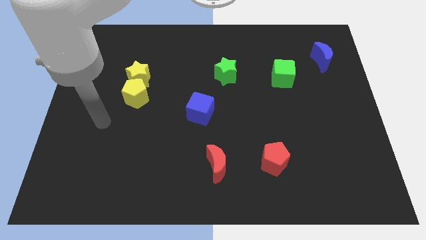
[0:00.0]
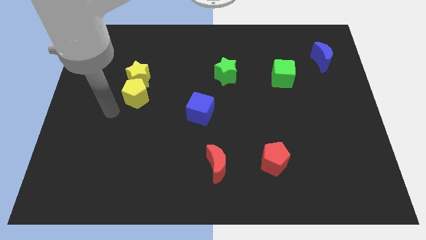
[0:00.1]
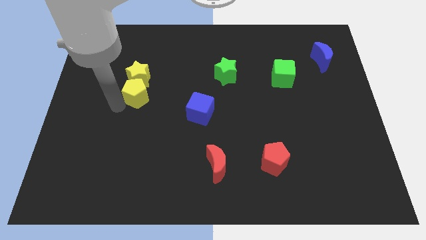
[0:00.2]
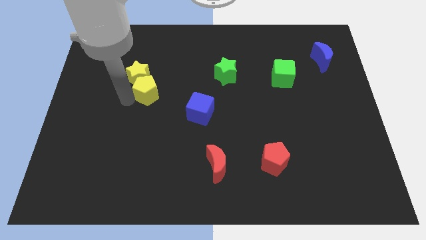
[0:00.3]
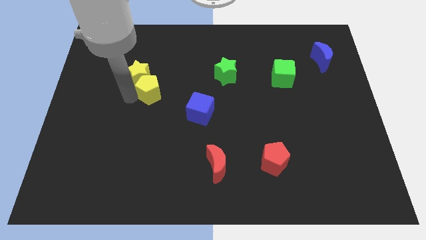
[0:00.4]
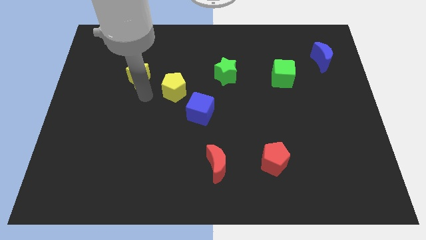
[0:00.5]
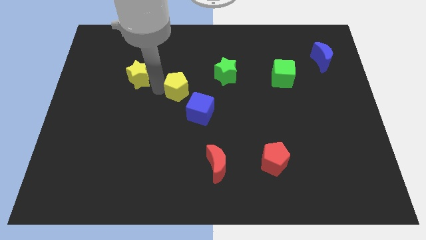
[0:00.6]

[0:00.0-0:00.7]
move the yellow star away from the yellow pentagon

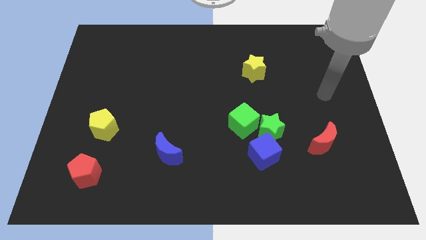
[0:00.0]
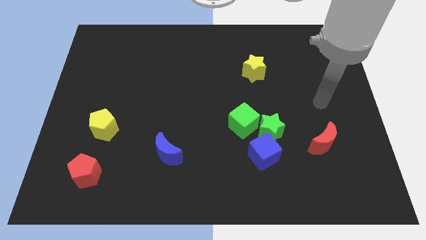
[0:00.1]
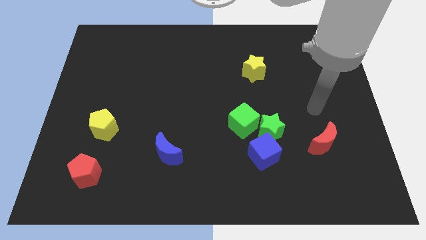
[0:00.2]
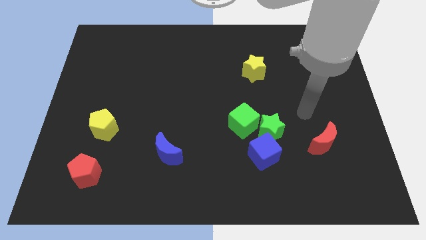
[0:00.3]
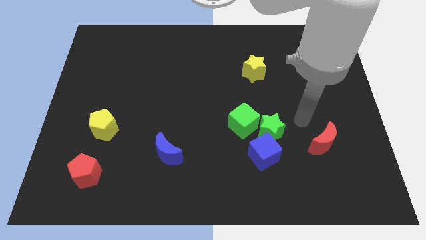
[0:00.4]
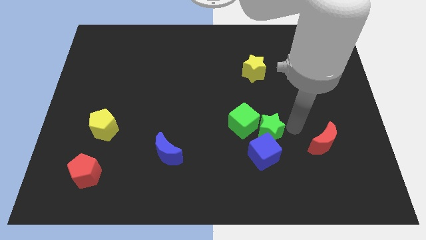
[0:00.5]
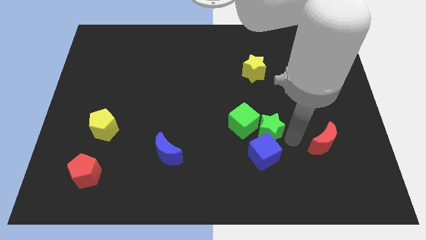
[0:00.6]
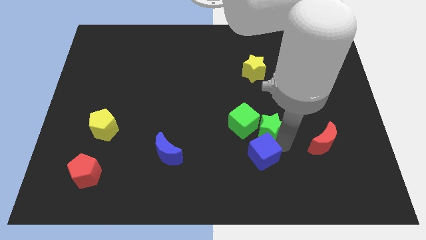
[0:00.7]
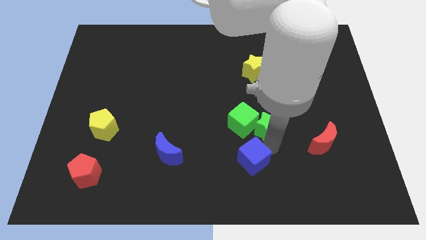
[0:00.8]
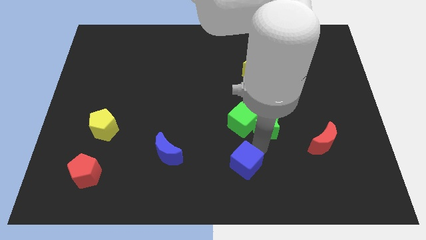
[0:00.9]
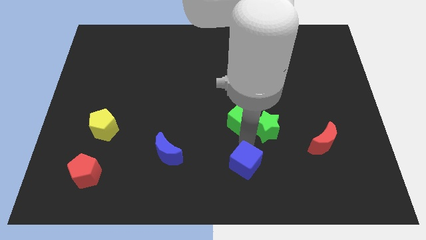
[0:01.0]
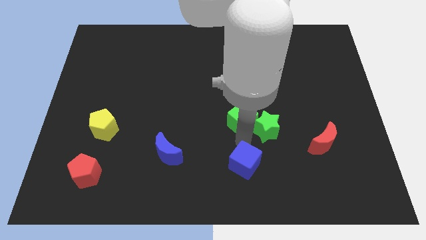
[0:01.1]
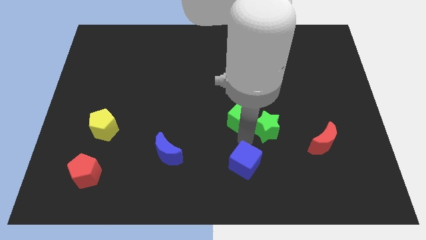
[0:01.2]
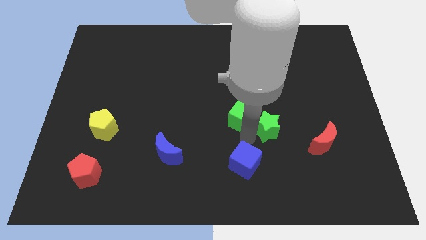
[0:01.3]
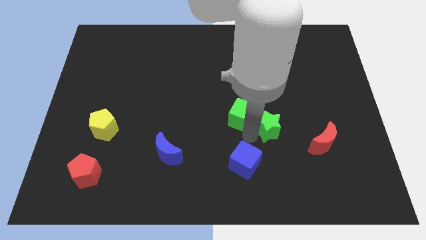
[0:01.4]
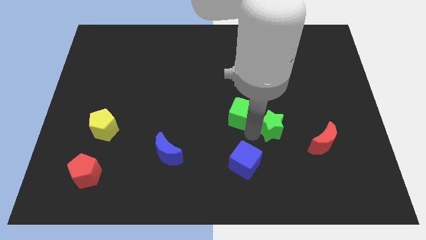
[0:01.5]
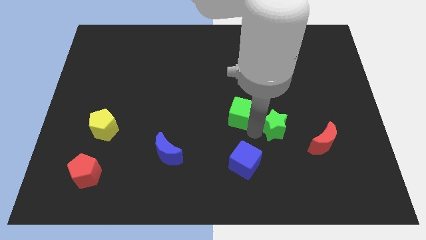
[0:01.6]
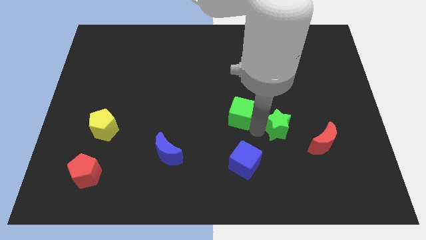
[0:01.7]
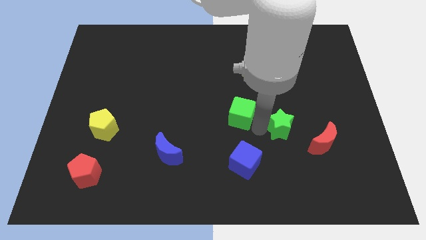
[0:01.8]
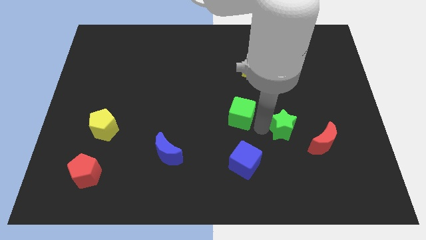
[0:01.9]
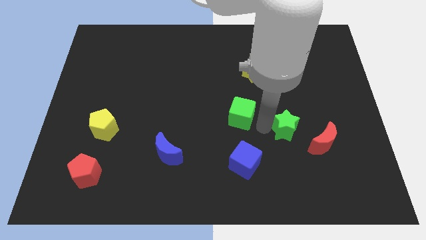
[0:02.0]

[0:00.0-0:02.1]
pull the green star apart from the blue cube and green cube

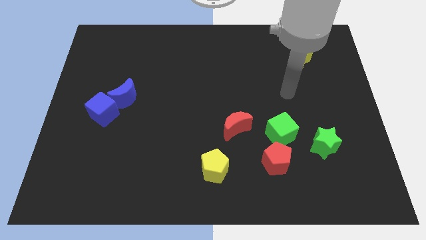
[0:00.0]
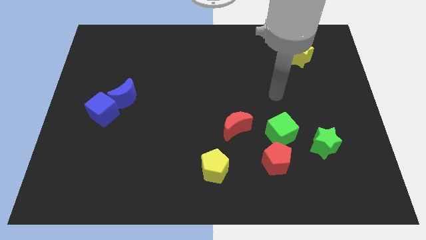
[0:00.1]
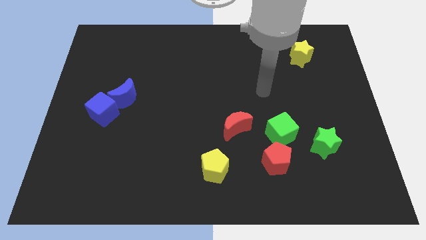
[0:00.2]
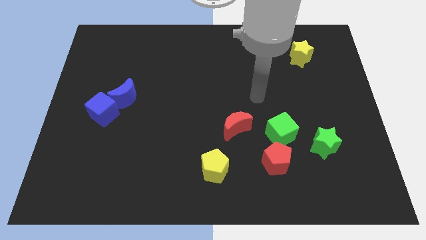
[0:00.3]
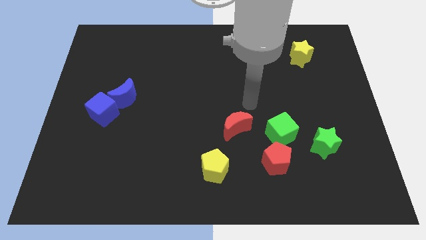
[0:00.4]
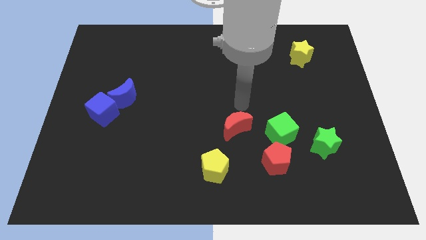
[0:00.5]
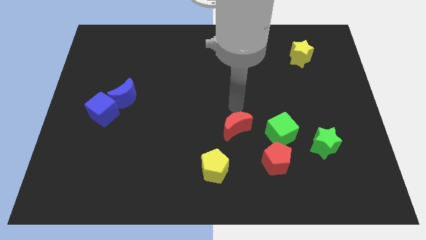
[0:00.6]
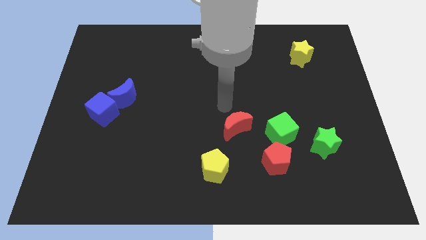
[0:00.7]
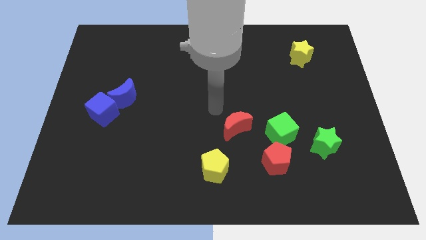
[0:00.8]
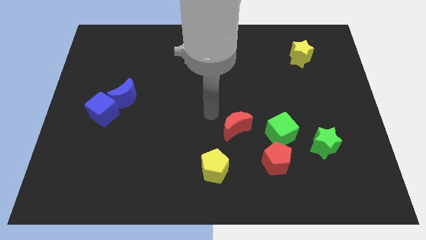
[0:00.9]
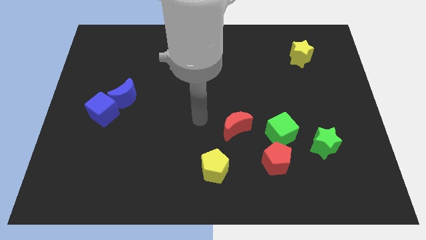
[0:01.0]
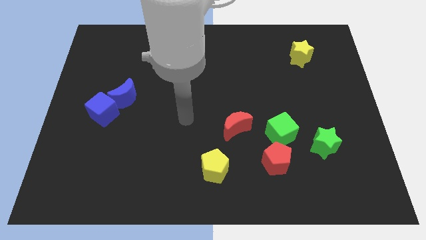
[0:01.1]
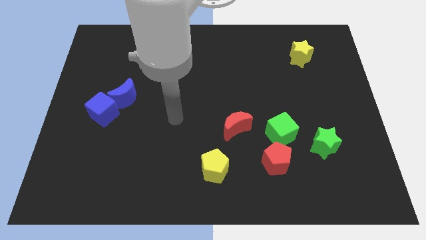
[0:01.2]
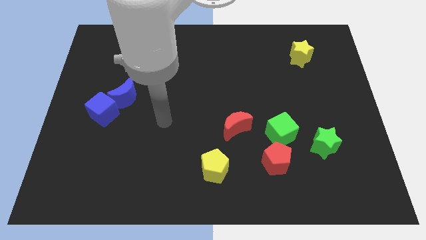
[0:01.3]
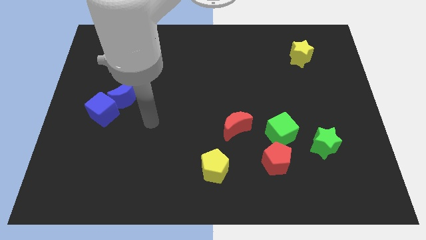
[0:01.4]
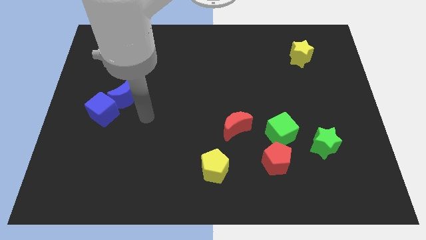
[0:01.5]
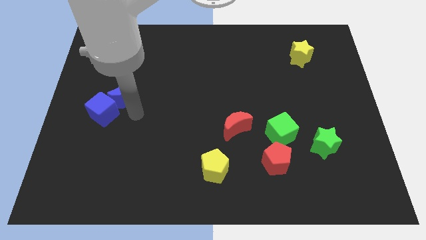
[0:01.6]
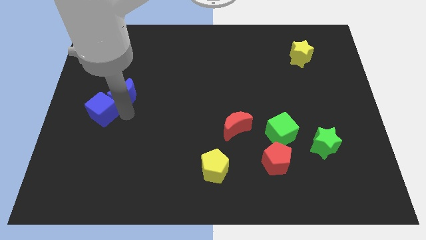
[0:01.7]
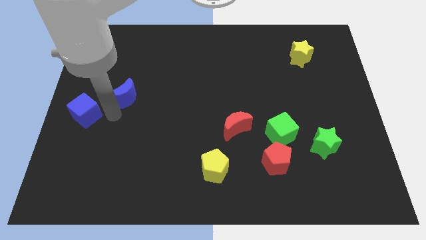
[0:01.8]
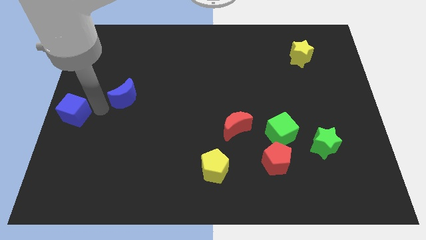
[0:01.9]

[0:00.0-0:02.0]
move the blue moon away from the blue cube

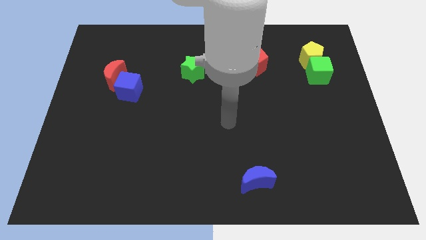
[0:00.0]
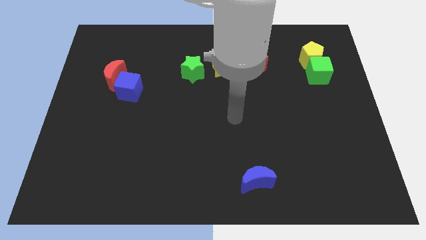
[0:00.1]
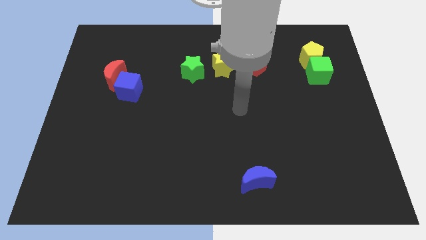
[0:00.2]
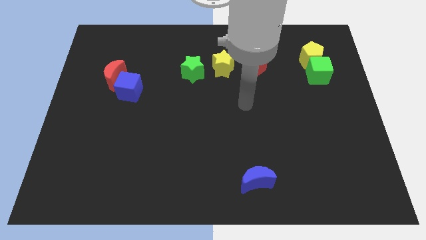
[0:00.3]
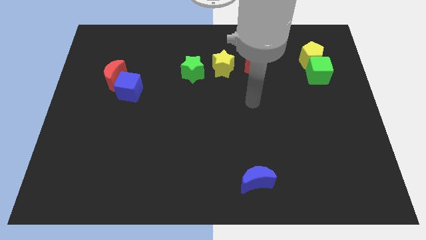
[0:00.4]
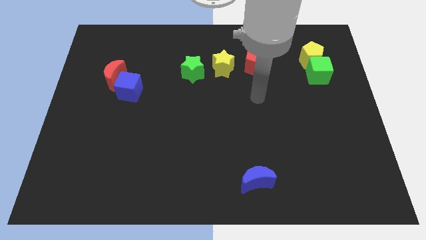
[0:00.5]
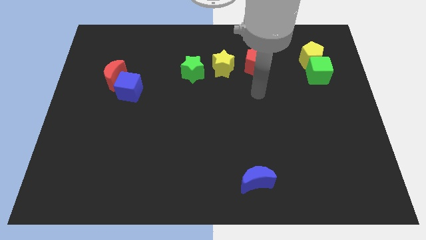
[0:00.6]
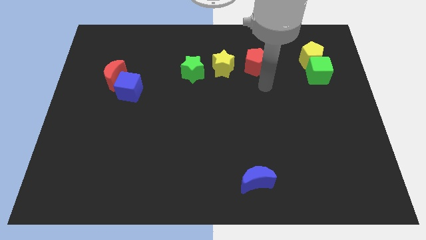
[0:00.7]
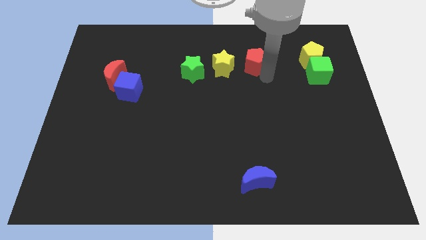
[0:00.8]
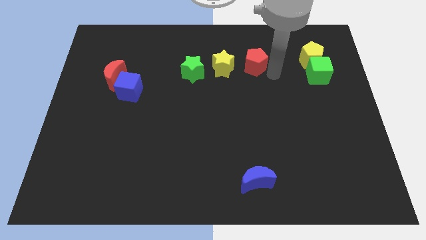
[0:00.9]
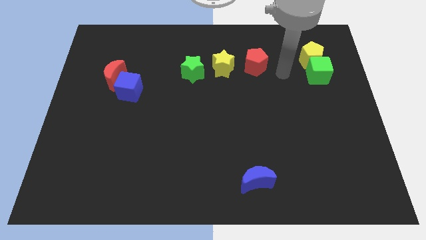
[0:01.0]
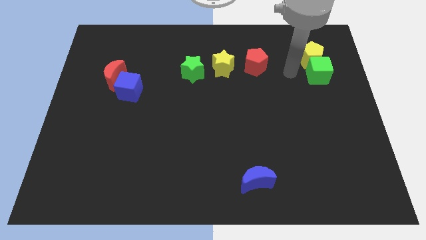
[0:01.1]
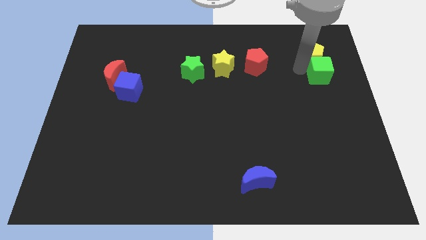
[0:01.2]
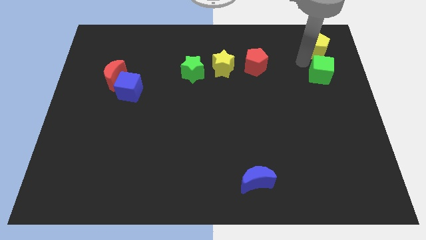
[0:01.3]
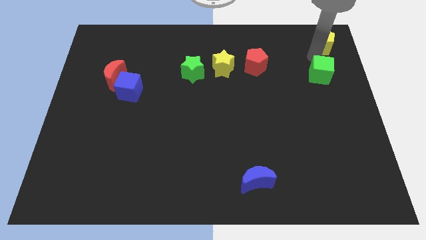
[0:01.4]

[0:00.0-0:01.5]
separate the green cube from the yellow pentagon

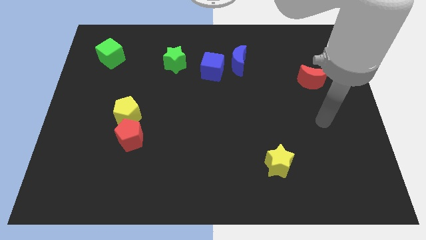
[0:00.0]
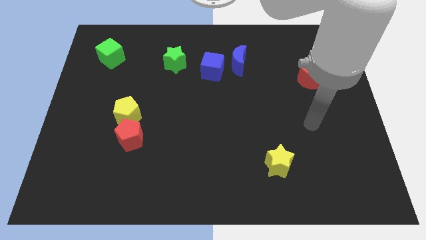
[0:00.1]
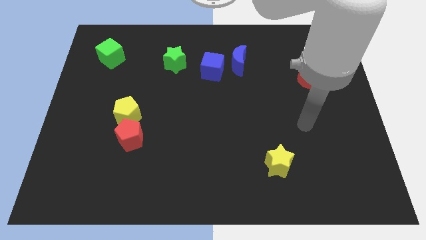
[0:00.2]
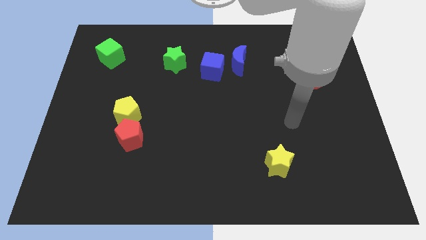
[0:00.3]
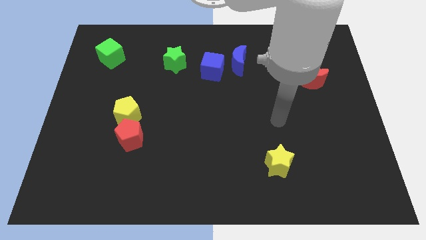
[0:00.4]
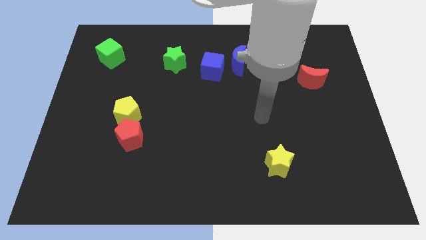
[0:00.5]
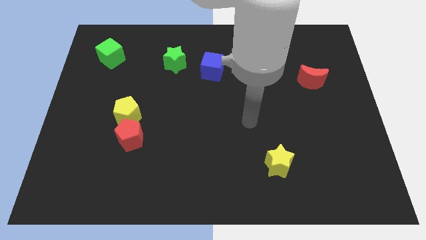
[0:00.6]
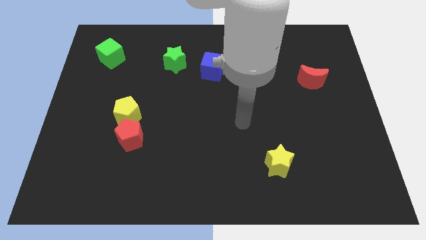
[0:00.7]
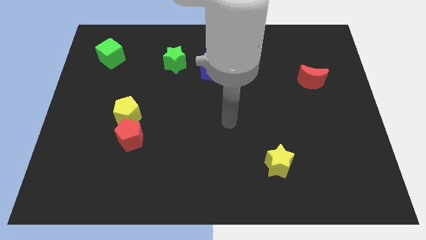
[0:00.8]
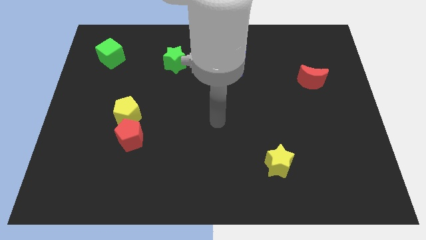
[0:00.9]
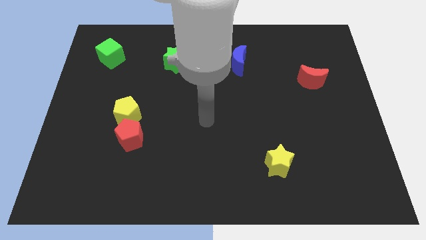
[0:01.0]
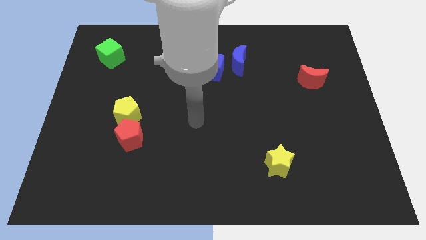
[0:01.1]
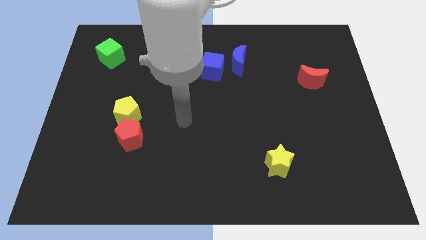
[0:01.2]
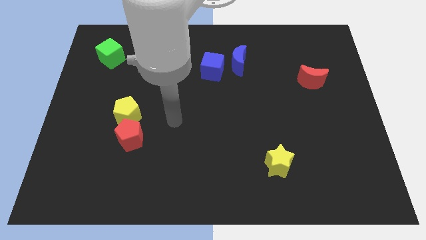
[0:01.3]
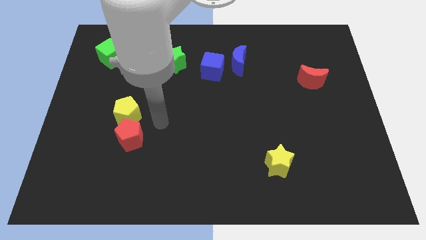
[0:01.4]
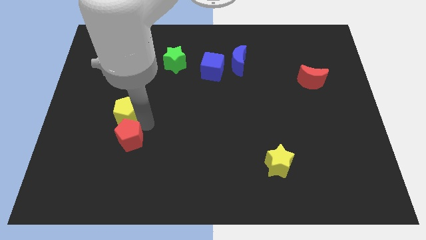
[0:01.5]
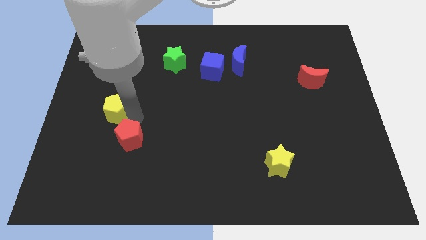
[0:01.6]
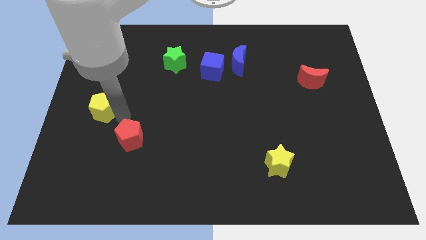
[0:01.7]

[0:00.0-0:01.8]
move the red pentagon away from the yellow pentagon

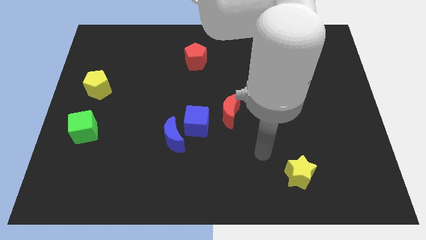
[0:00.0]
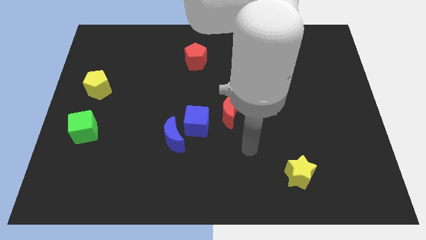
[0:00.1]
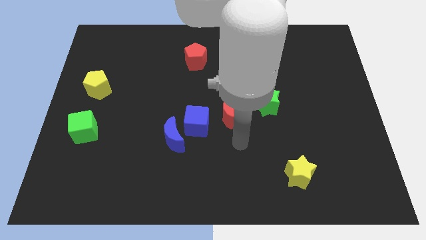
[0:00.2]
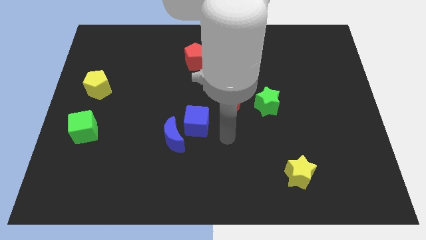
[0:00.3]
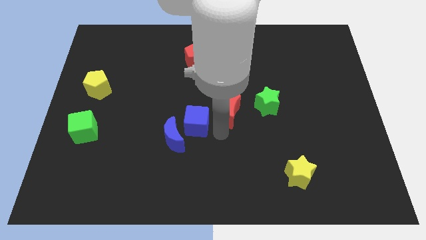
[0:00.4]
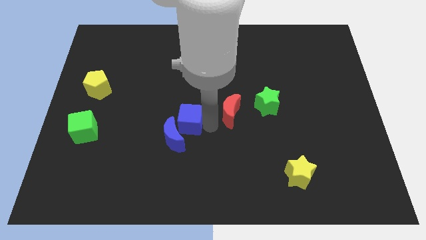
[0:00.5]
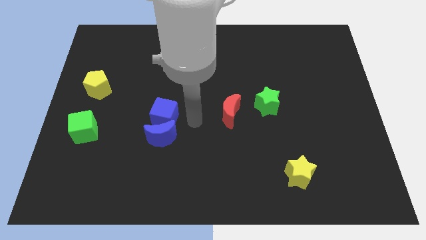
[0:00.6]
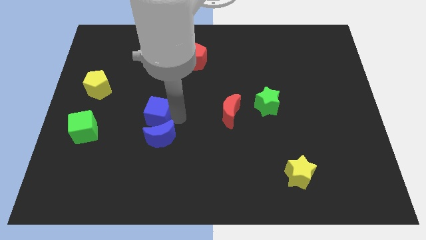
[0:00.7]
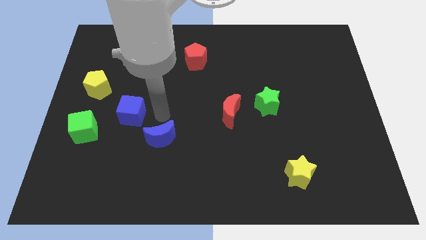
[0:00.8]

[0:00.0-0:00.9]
pull the blue moon apart from the blue cube

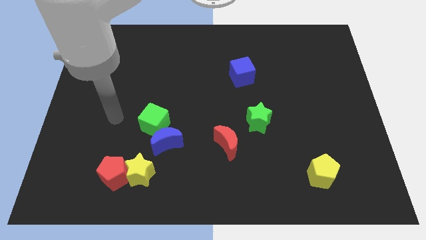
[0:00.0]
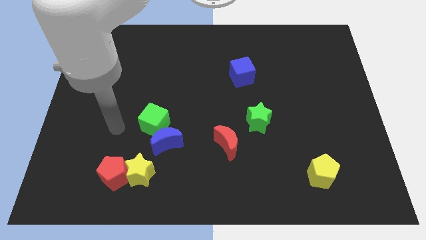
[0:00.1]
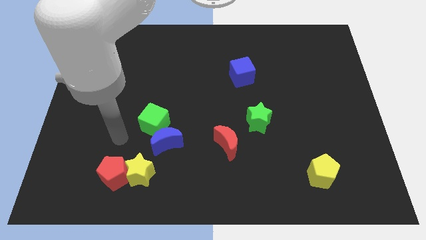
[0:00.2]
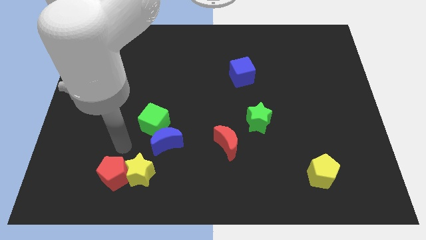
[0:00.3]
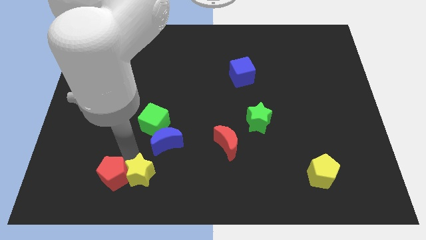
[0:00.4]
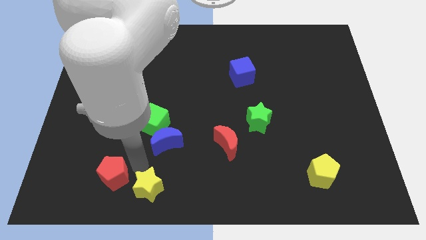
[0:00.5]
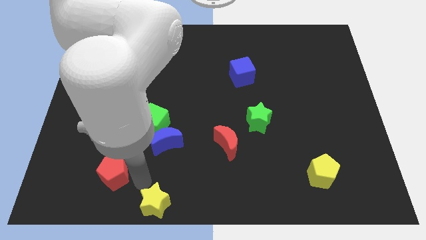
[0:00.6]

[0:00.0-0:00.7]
move the red pentagon away from the yellow star
